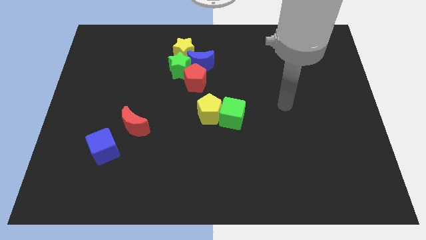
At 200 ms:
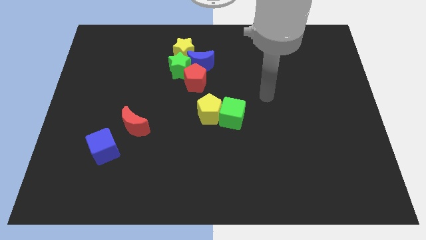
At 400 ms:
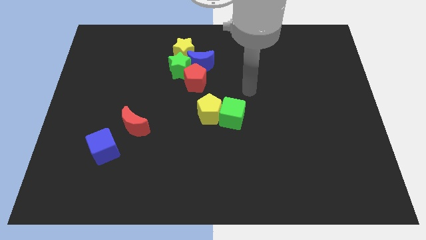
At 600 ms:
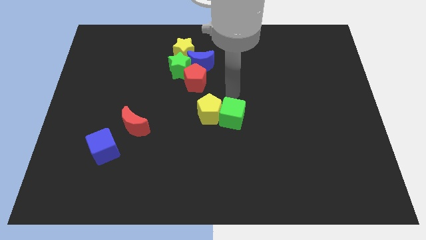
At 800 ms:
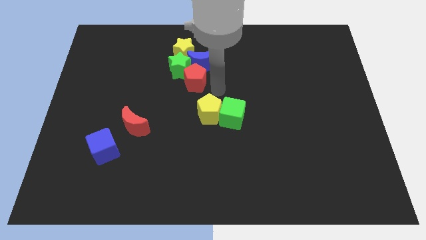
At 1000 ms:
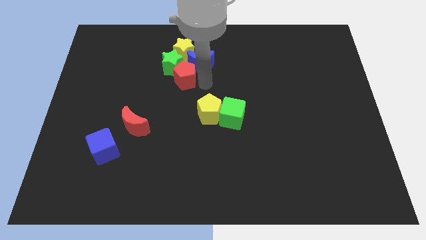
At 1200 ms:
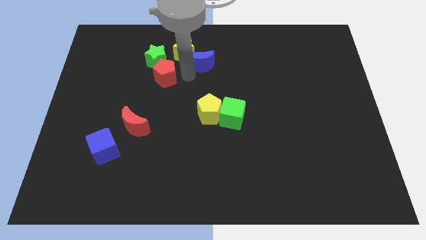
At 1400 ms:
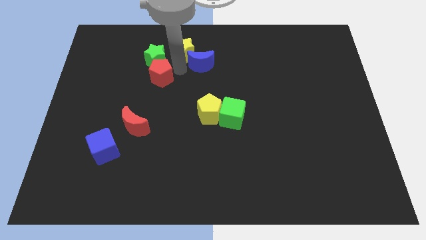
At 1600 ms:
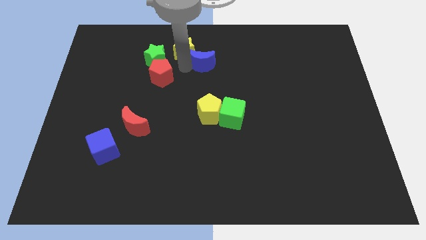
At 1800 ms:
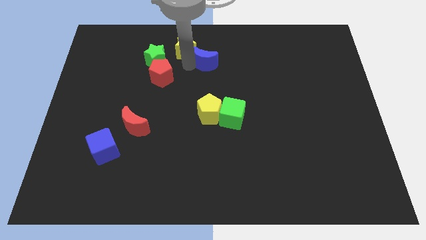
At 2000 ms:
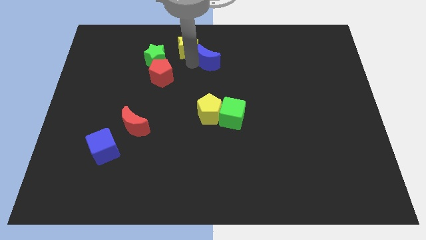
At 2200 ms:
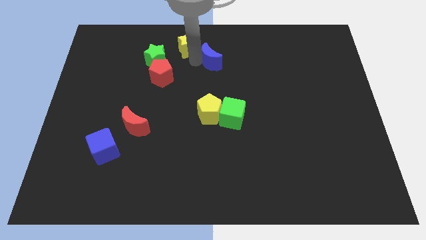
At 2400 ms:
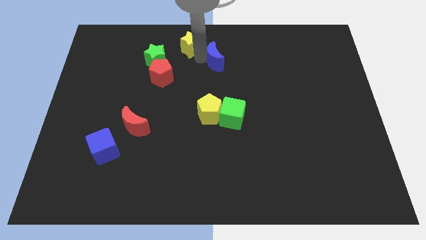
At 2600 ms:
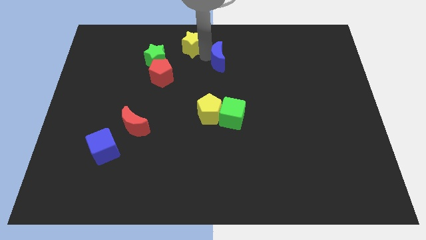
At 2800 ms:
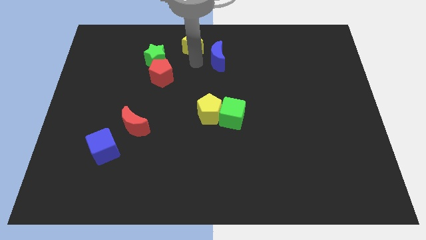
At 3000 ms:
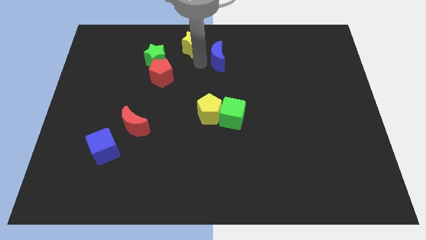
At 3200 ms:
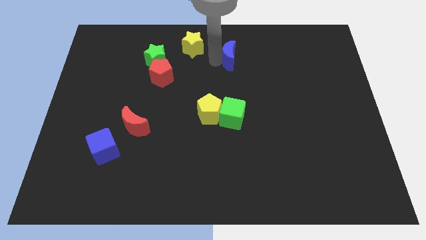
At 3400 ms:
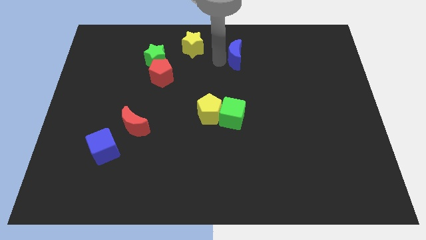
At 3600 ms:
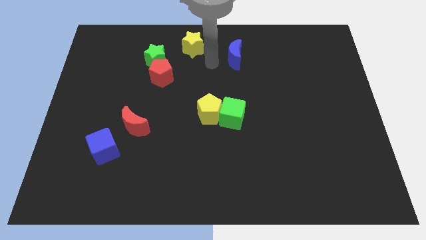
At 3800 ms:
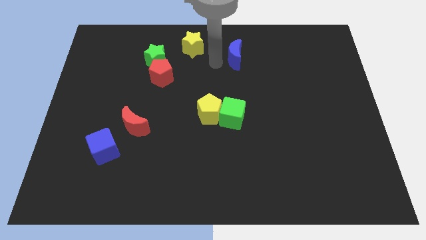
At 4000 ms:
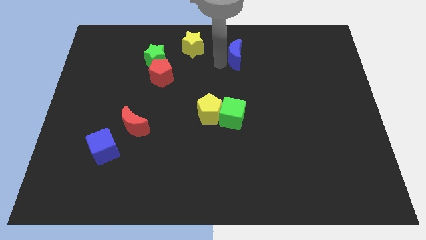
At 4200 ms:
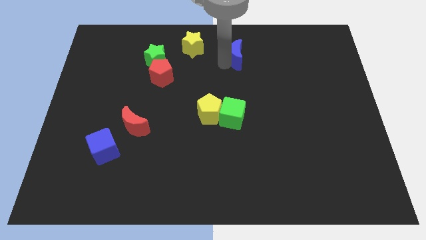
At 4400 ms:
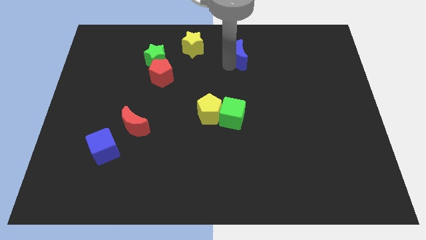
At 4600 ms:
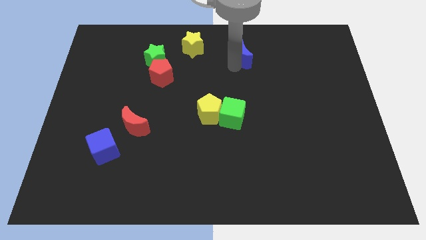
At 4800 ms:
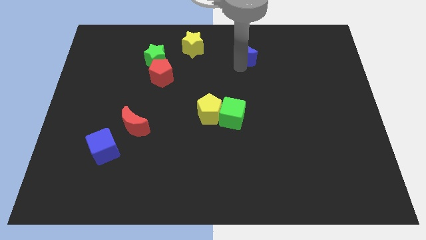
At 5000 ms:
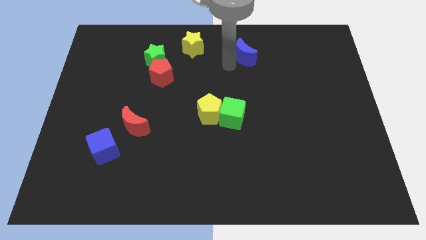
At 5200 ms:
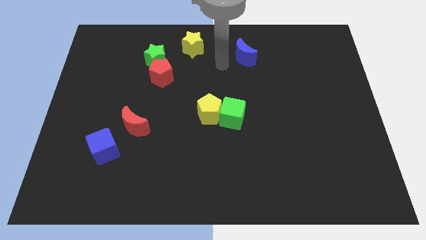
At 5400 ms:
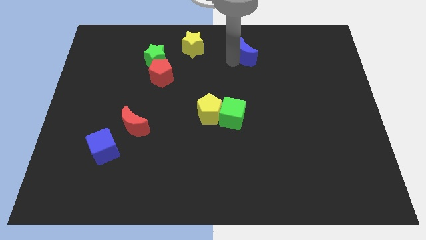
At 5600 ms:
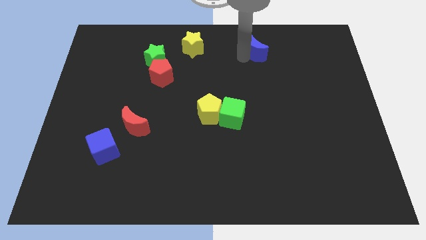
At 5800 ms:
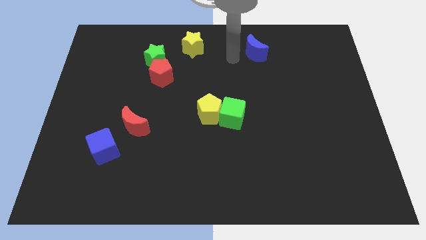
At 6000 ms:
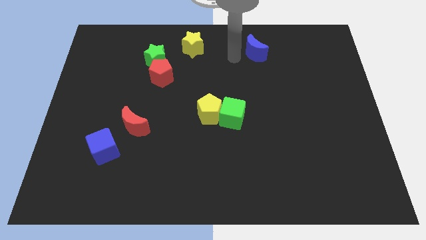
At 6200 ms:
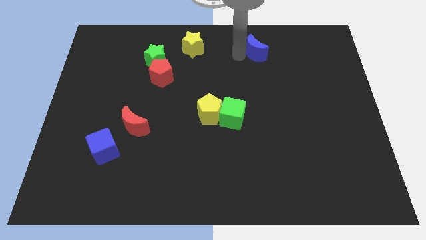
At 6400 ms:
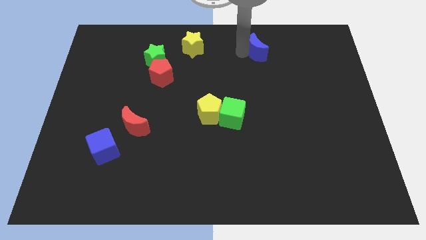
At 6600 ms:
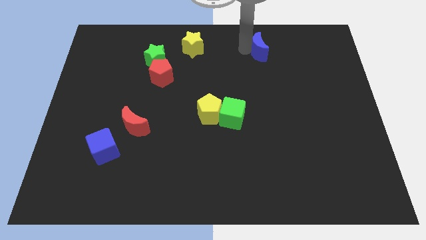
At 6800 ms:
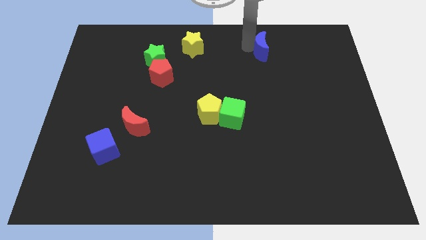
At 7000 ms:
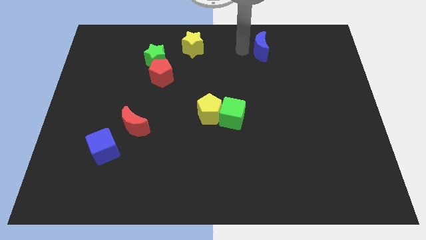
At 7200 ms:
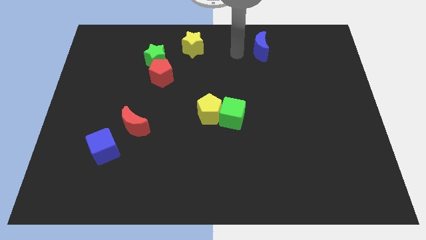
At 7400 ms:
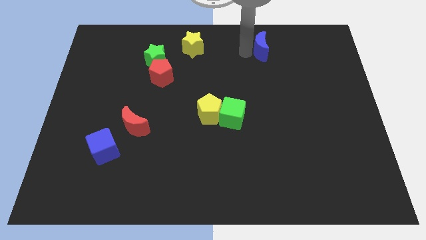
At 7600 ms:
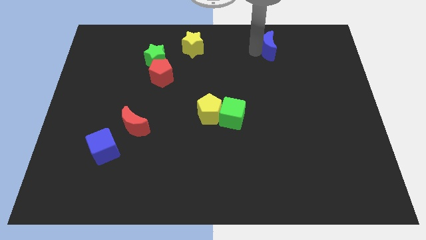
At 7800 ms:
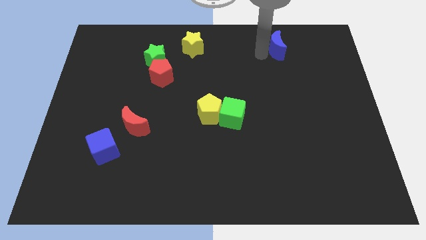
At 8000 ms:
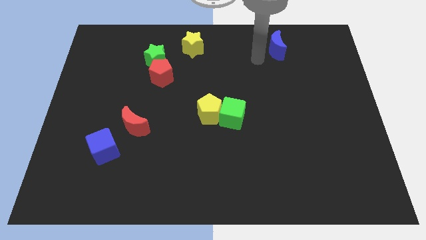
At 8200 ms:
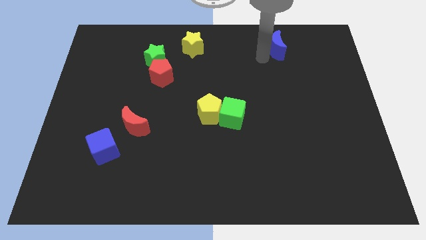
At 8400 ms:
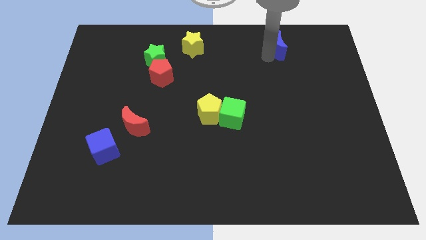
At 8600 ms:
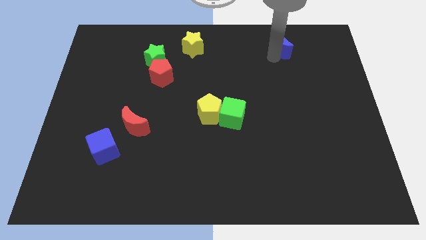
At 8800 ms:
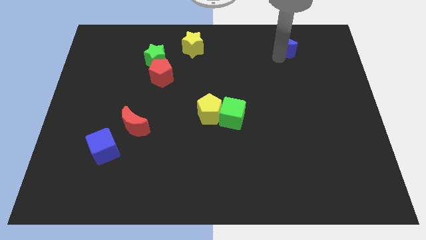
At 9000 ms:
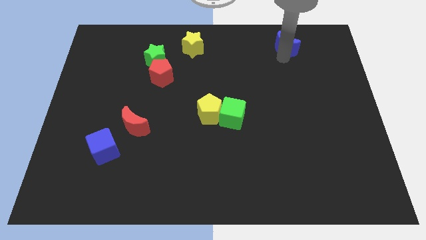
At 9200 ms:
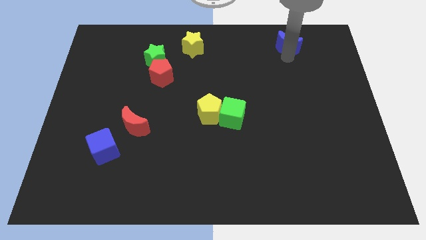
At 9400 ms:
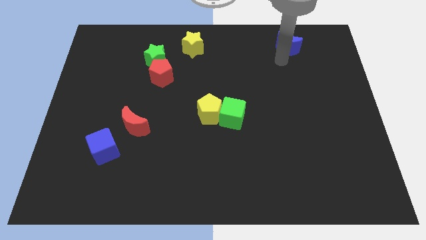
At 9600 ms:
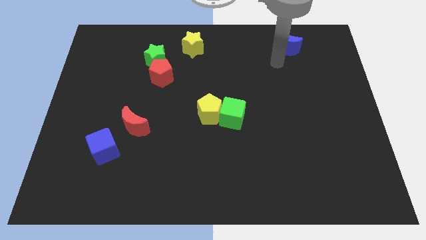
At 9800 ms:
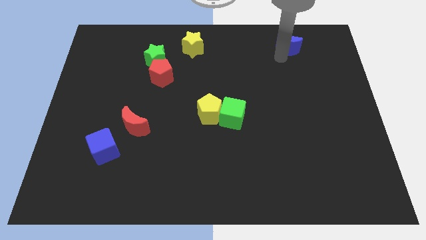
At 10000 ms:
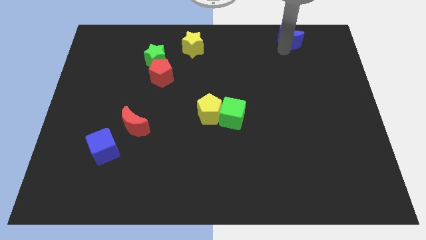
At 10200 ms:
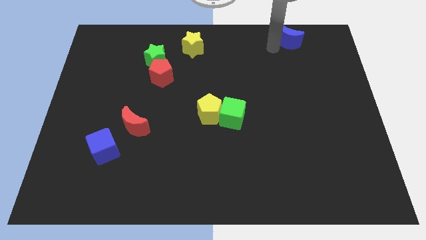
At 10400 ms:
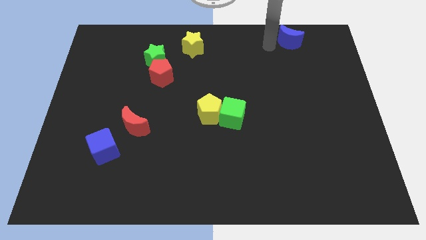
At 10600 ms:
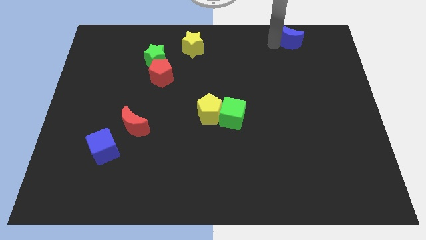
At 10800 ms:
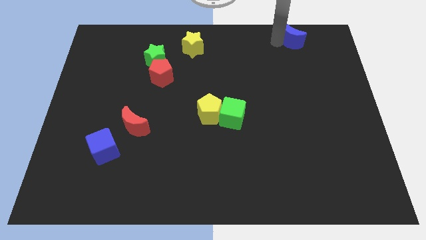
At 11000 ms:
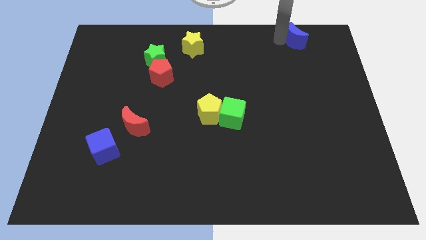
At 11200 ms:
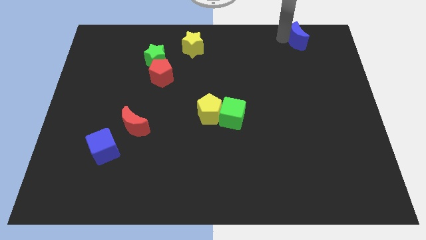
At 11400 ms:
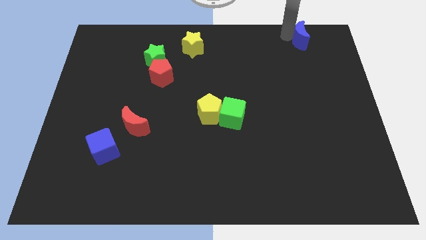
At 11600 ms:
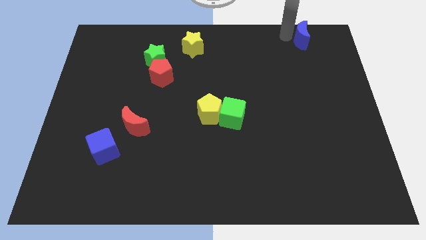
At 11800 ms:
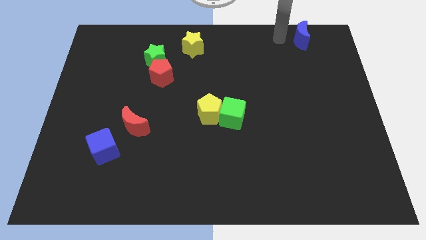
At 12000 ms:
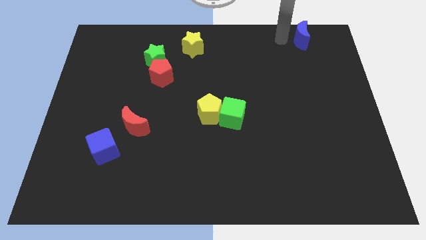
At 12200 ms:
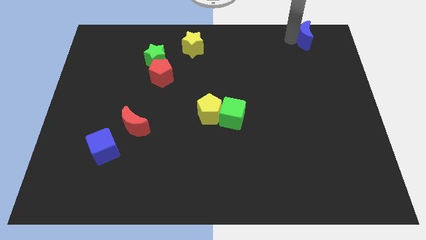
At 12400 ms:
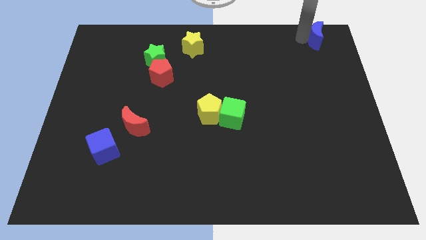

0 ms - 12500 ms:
move the blue moon to the top right
